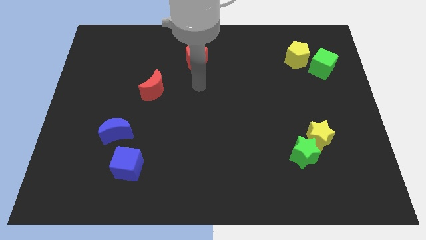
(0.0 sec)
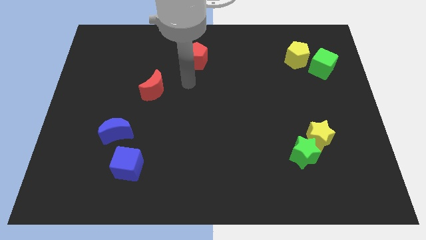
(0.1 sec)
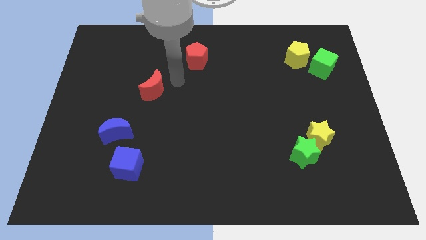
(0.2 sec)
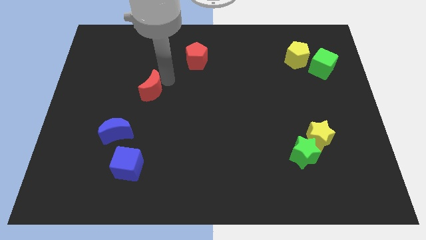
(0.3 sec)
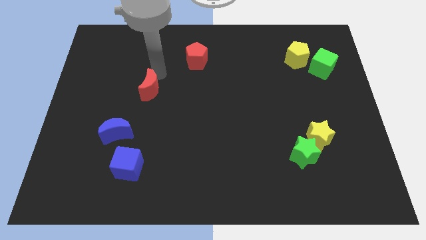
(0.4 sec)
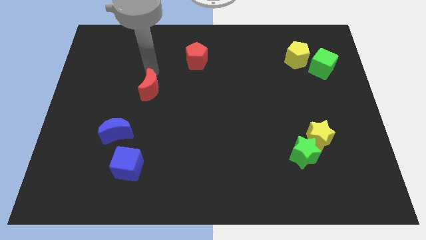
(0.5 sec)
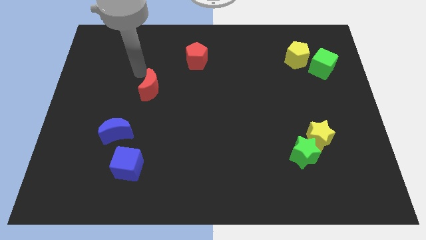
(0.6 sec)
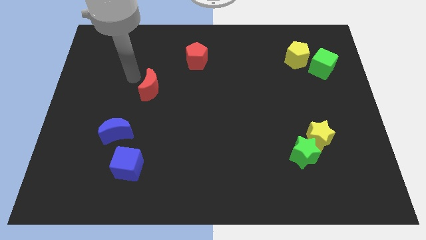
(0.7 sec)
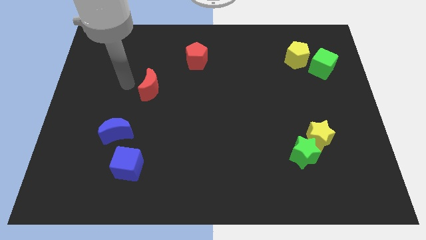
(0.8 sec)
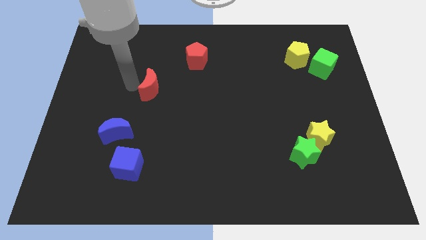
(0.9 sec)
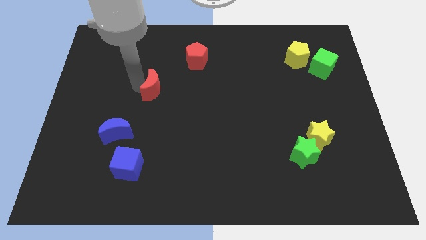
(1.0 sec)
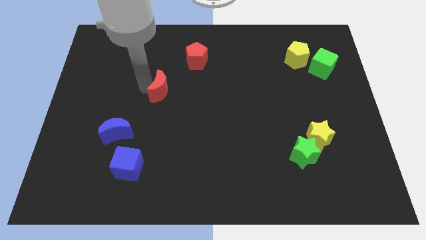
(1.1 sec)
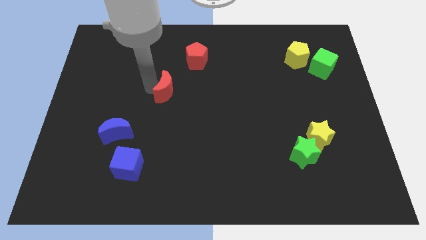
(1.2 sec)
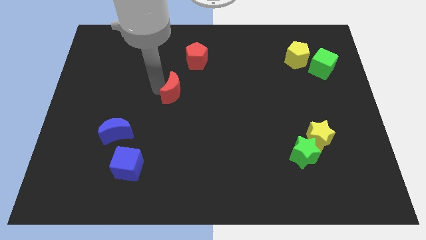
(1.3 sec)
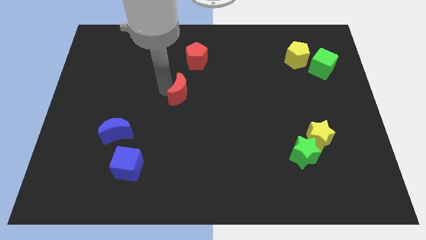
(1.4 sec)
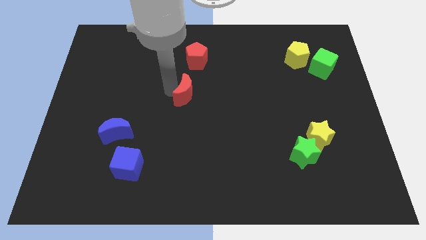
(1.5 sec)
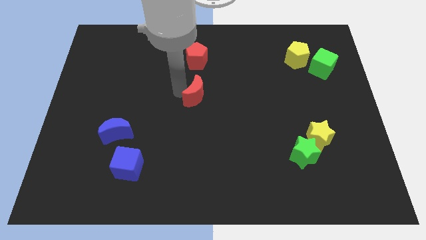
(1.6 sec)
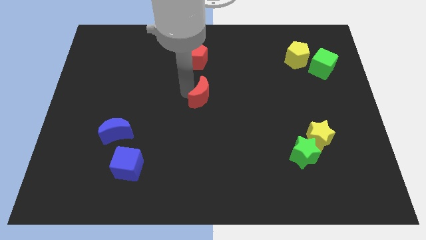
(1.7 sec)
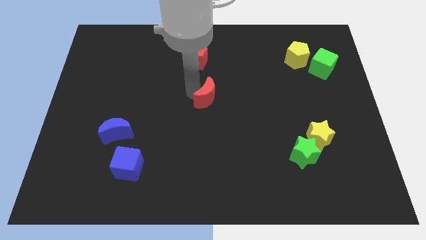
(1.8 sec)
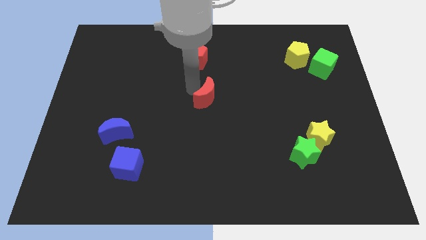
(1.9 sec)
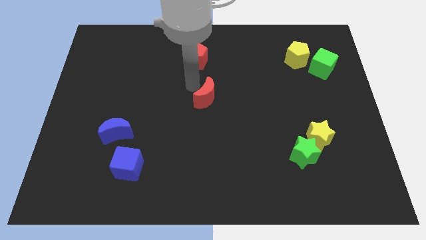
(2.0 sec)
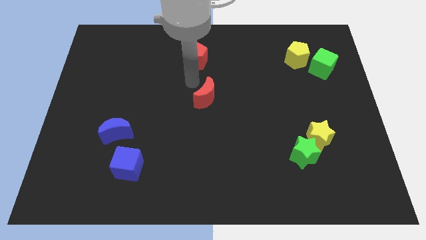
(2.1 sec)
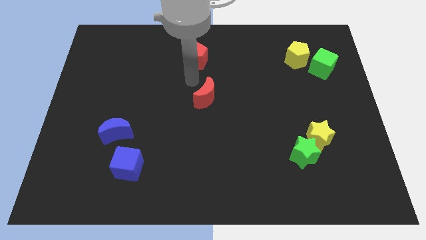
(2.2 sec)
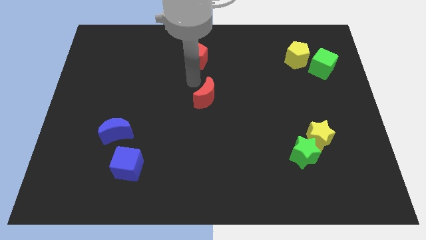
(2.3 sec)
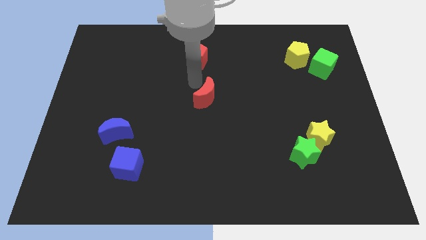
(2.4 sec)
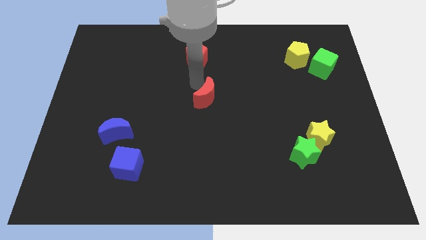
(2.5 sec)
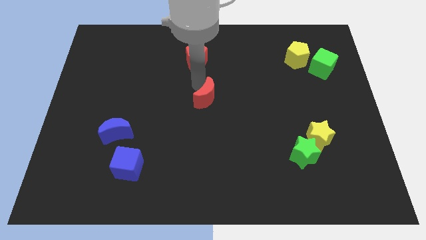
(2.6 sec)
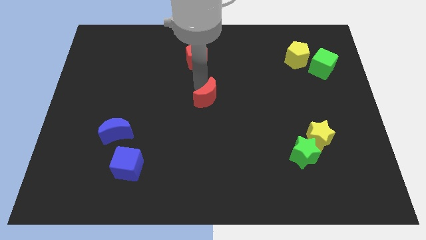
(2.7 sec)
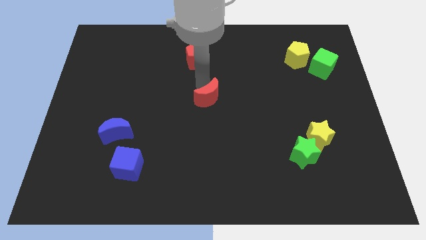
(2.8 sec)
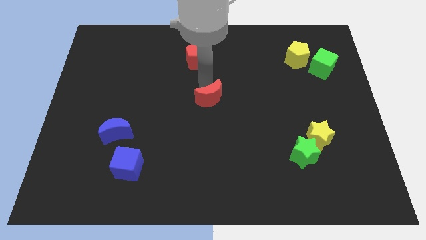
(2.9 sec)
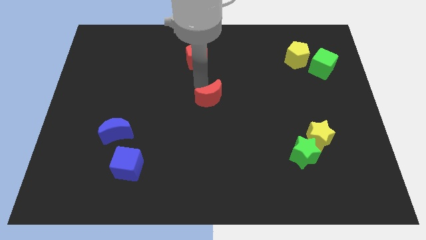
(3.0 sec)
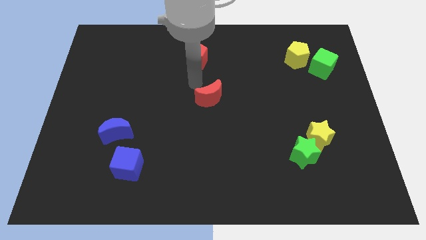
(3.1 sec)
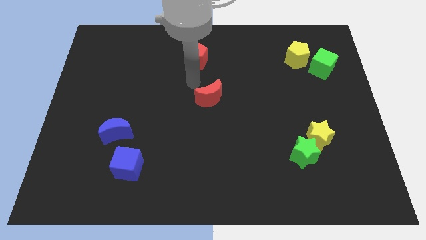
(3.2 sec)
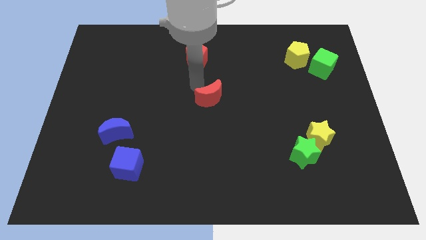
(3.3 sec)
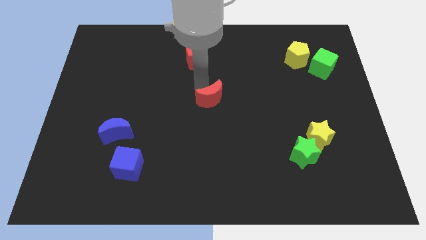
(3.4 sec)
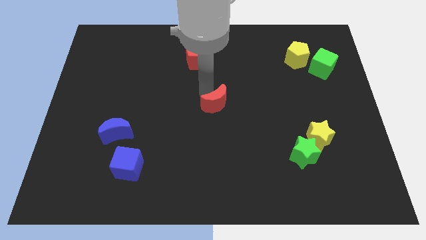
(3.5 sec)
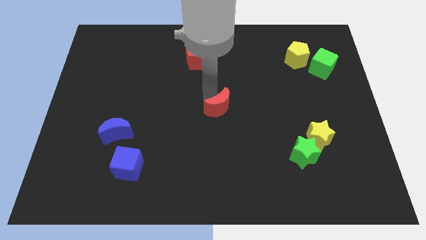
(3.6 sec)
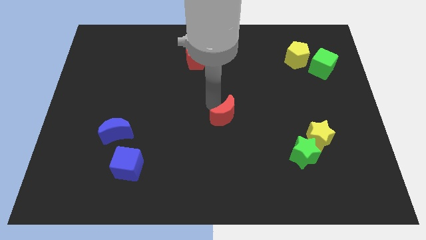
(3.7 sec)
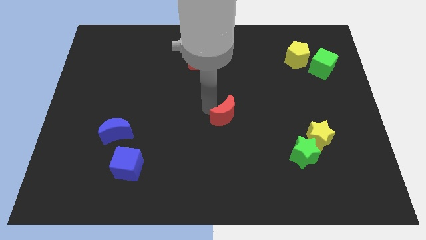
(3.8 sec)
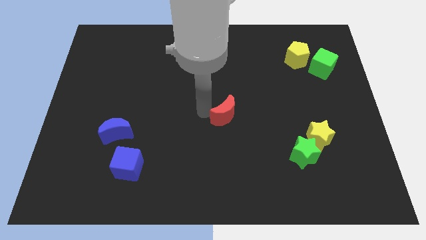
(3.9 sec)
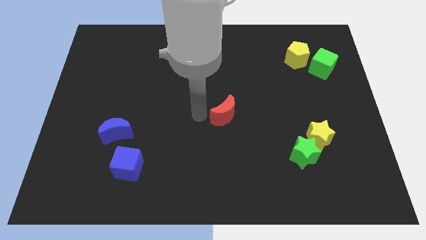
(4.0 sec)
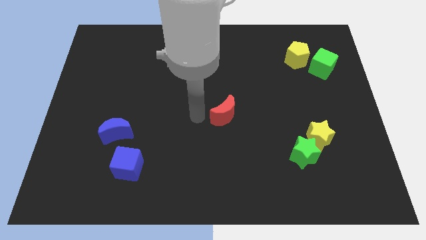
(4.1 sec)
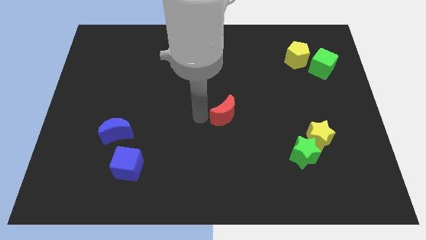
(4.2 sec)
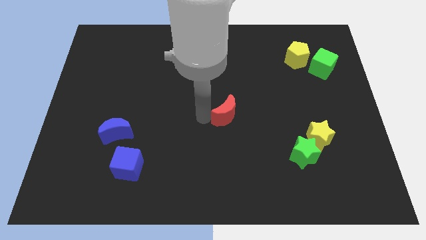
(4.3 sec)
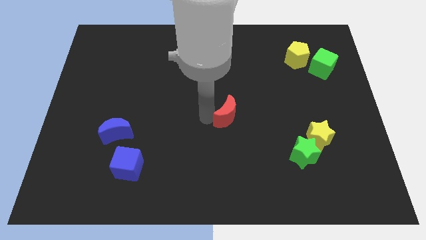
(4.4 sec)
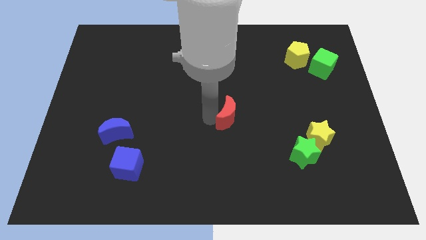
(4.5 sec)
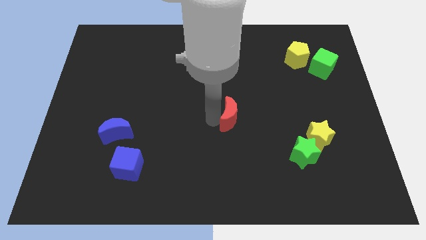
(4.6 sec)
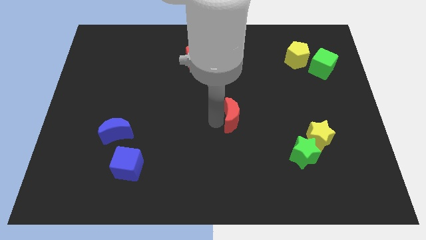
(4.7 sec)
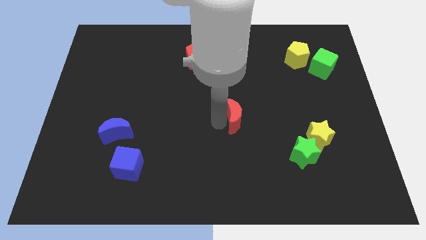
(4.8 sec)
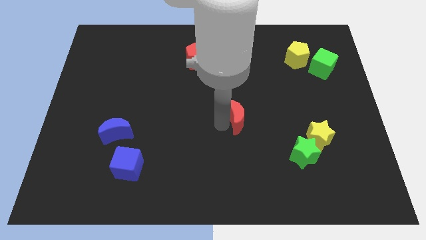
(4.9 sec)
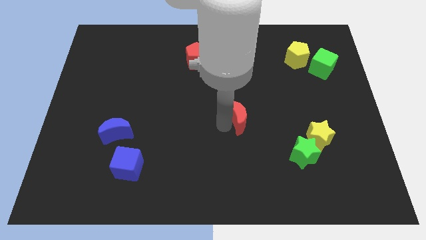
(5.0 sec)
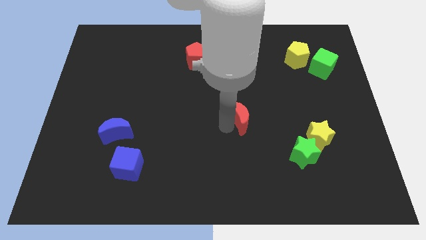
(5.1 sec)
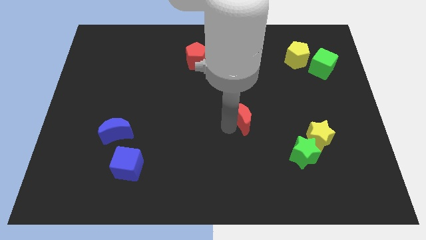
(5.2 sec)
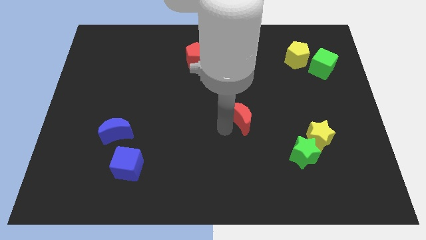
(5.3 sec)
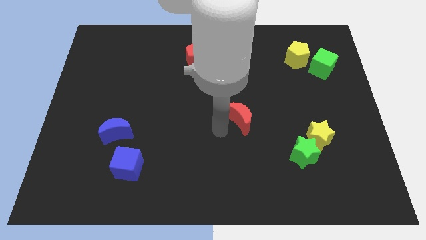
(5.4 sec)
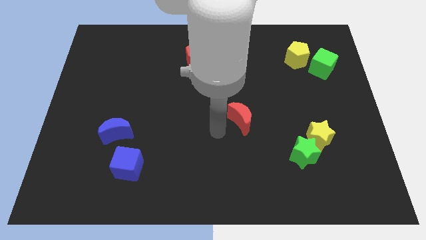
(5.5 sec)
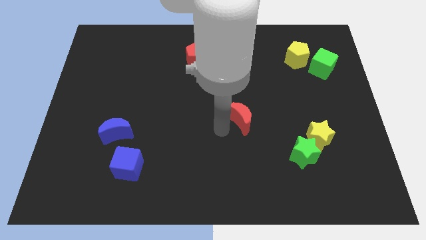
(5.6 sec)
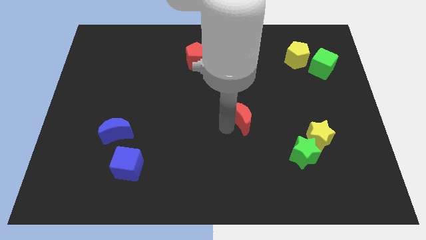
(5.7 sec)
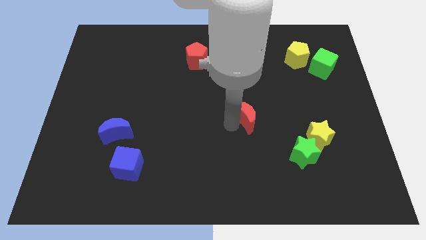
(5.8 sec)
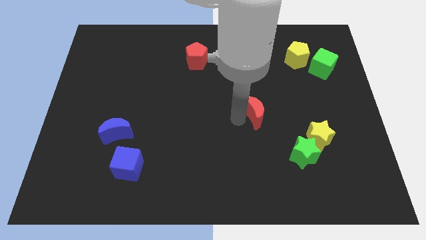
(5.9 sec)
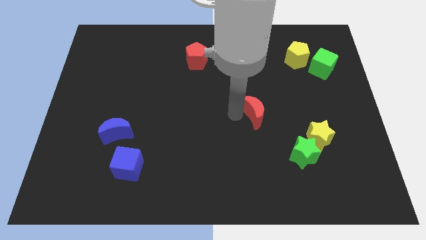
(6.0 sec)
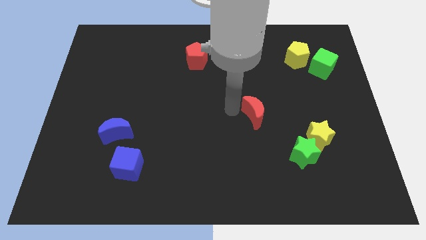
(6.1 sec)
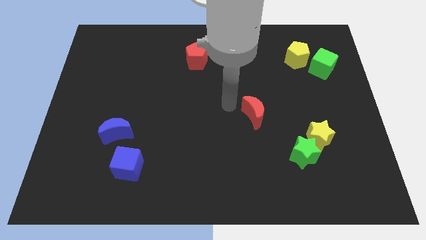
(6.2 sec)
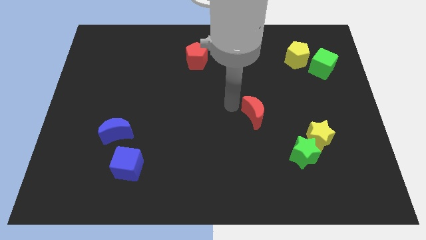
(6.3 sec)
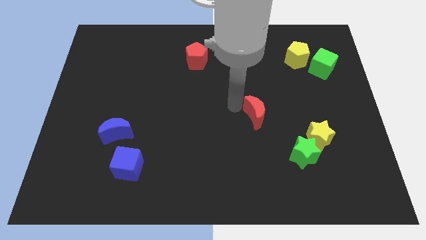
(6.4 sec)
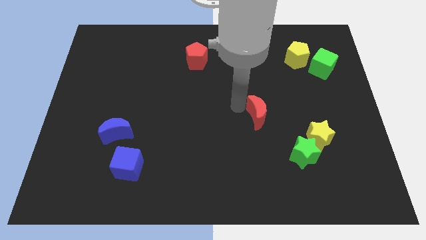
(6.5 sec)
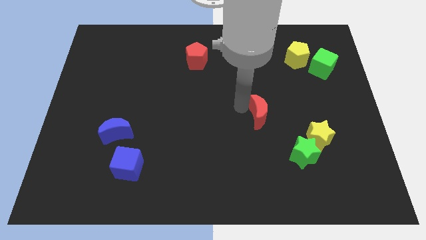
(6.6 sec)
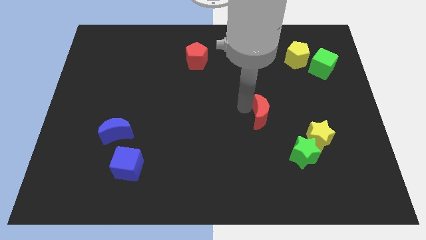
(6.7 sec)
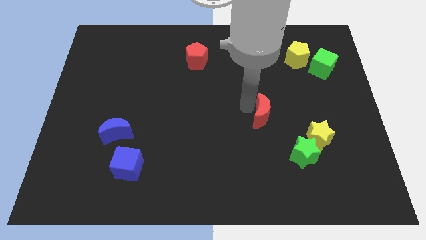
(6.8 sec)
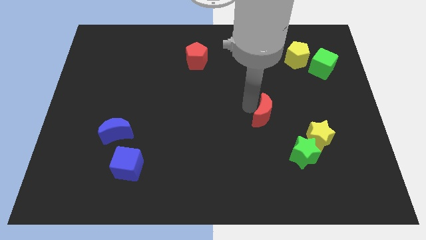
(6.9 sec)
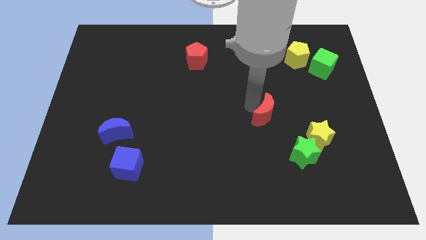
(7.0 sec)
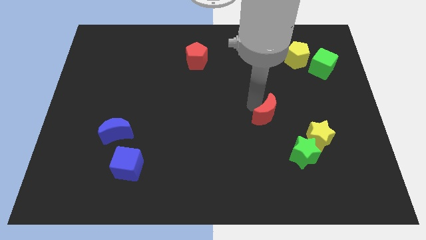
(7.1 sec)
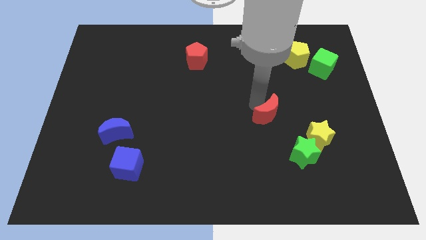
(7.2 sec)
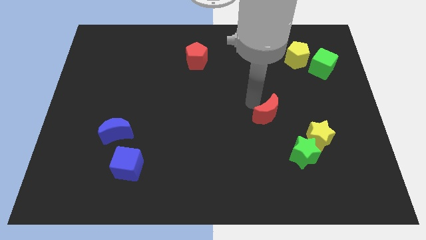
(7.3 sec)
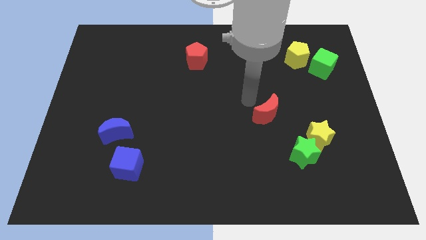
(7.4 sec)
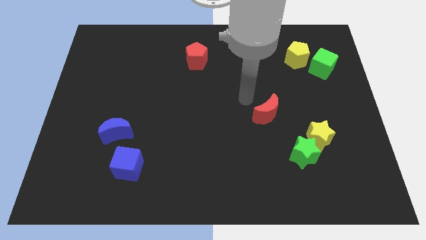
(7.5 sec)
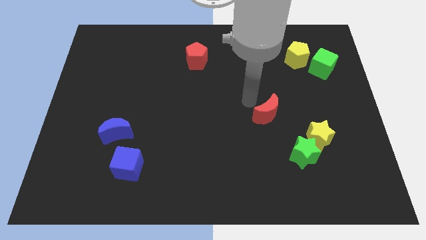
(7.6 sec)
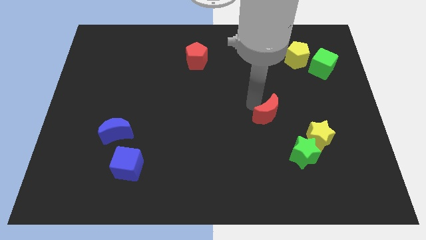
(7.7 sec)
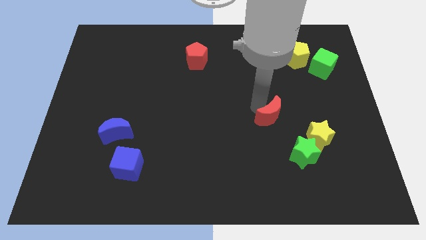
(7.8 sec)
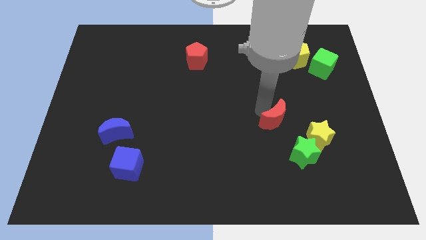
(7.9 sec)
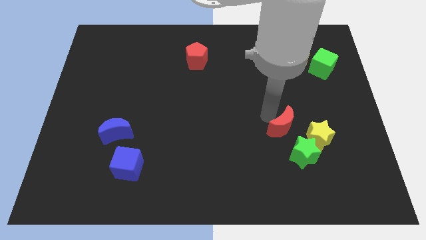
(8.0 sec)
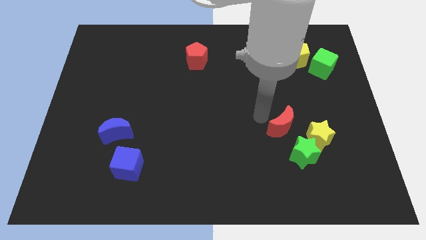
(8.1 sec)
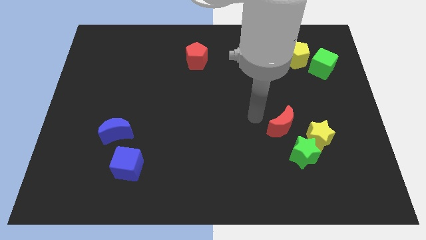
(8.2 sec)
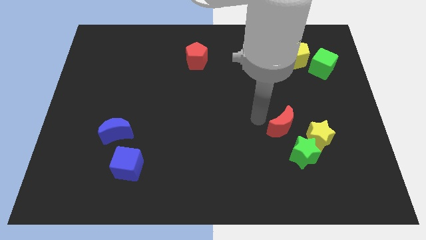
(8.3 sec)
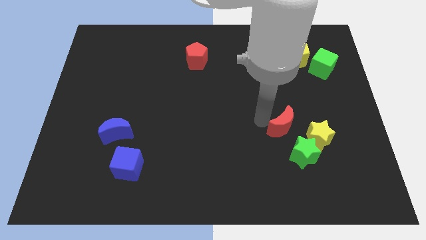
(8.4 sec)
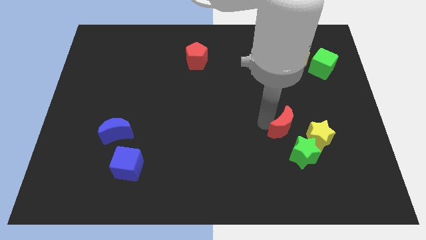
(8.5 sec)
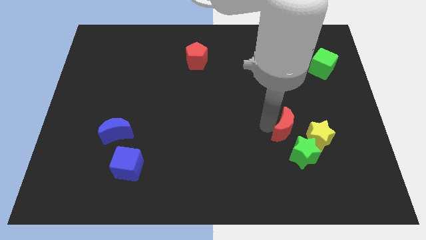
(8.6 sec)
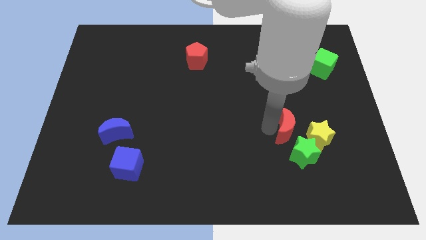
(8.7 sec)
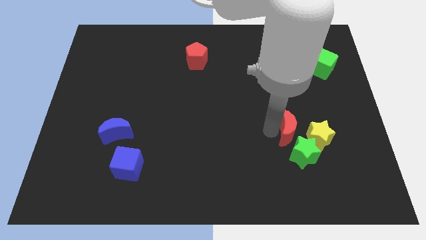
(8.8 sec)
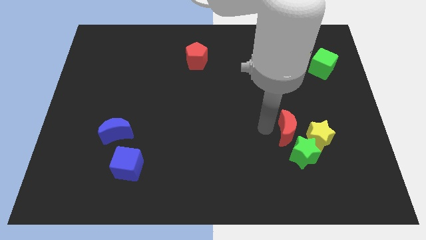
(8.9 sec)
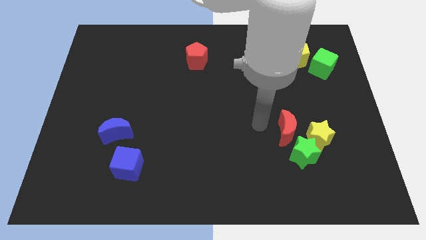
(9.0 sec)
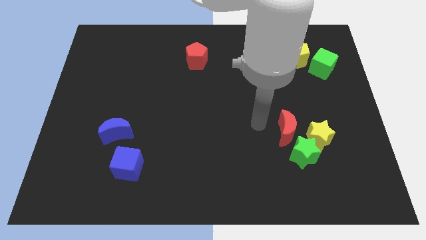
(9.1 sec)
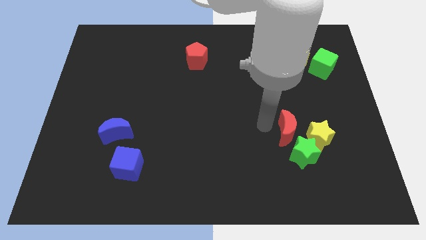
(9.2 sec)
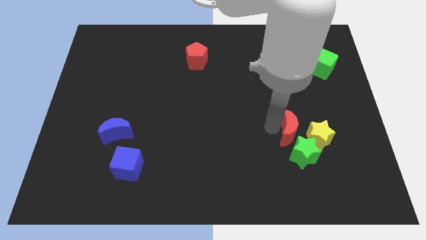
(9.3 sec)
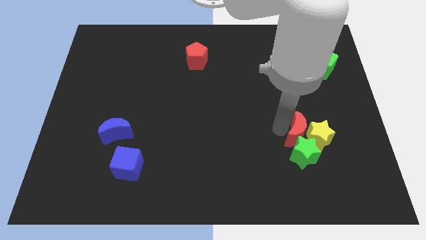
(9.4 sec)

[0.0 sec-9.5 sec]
move the red moon next to the yellow star
